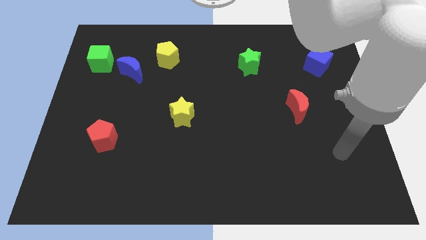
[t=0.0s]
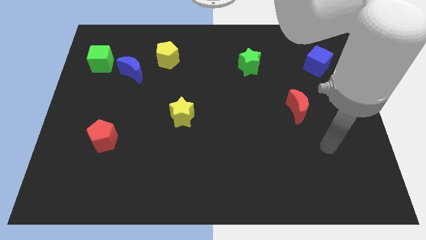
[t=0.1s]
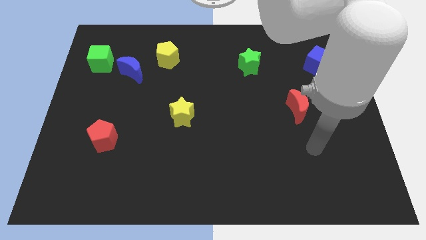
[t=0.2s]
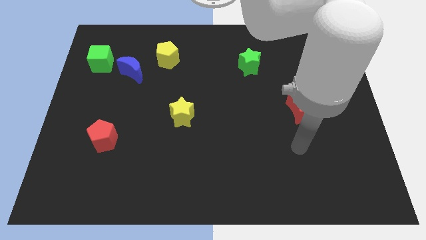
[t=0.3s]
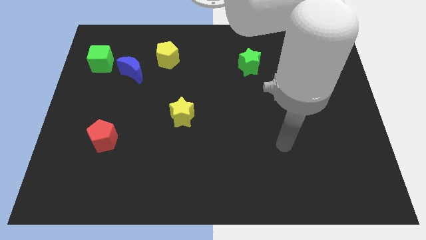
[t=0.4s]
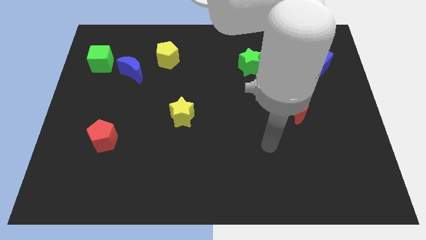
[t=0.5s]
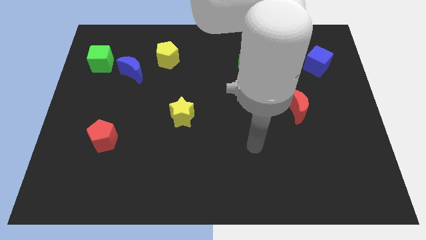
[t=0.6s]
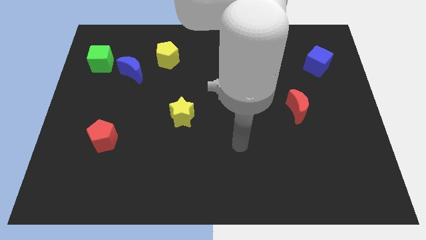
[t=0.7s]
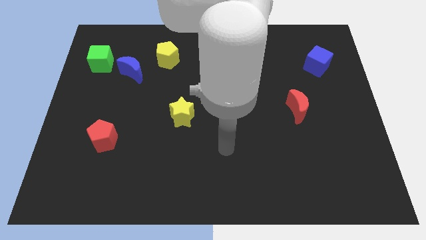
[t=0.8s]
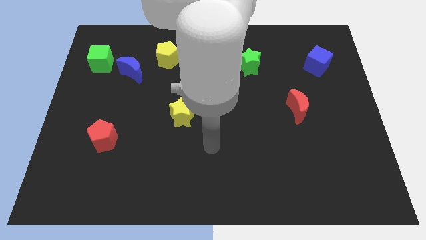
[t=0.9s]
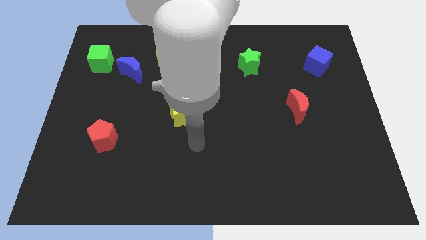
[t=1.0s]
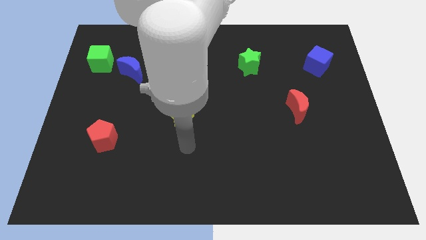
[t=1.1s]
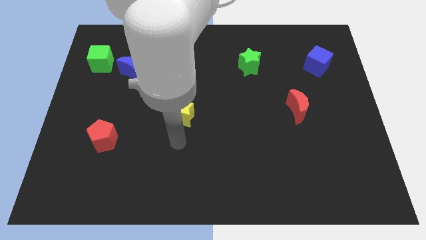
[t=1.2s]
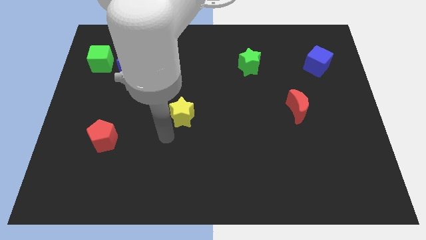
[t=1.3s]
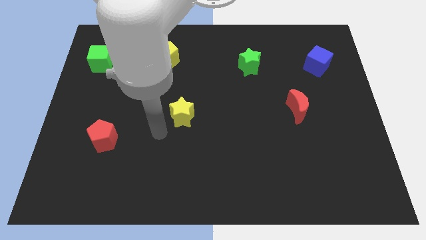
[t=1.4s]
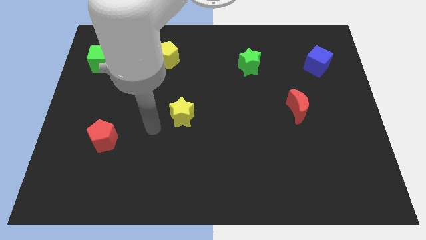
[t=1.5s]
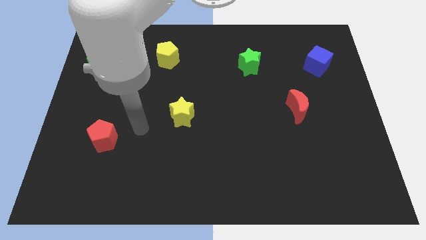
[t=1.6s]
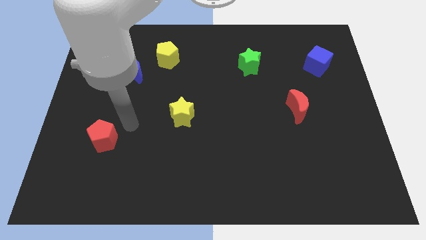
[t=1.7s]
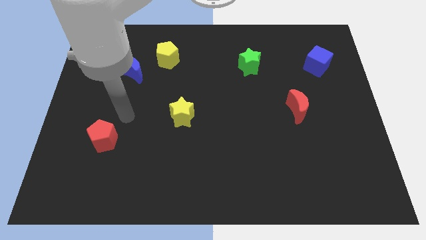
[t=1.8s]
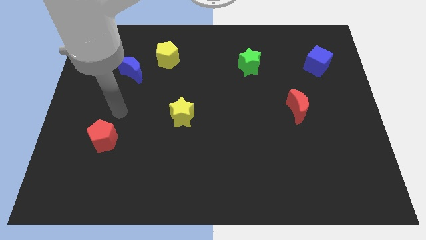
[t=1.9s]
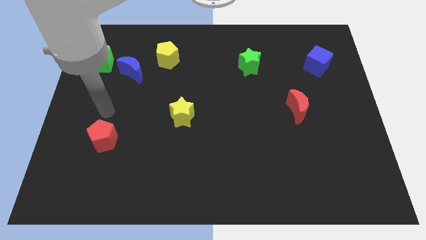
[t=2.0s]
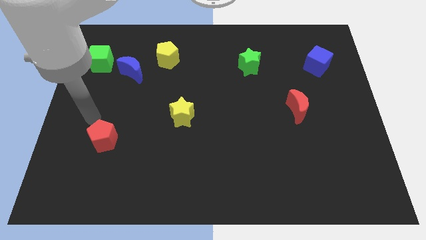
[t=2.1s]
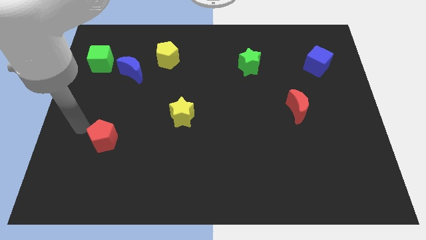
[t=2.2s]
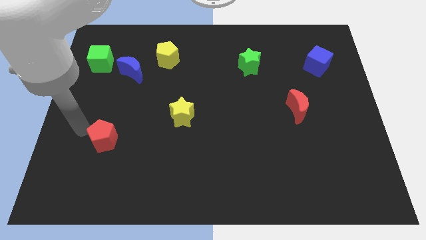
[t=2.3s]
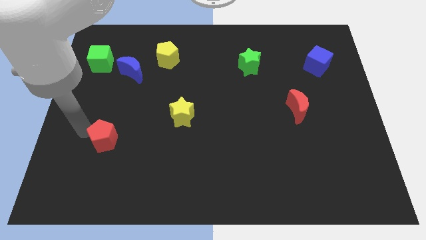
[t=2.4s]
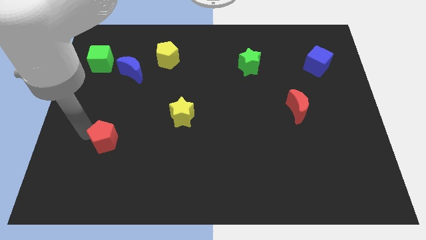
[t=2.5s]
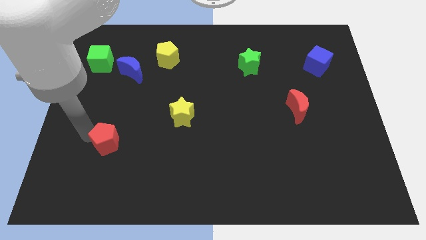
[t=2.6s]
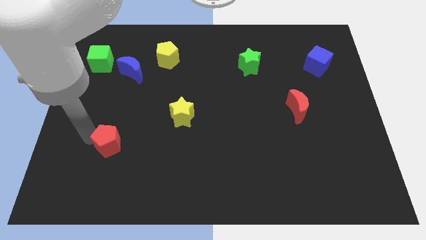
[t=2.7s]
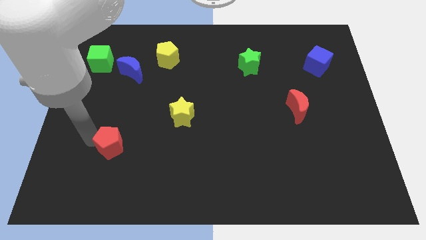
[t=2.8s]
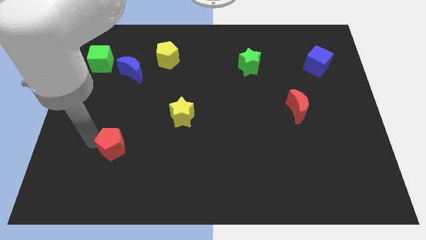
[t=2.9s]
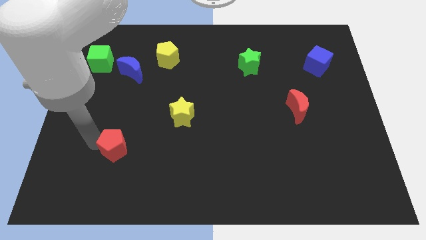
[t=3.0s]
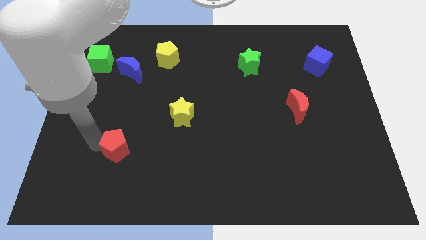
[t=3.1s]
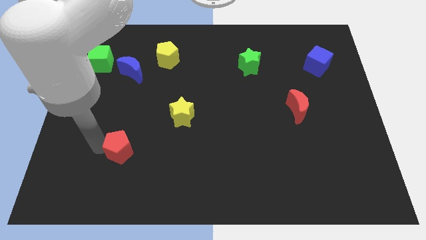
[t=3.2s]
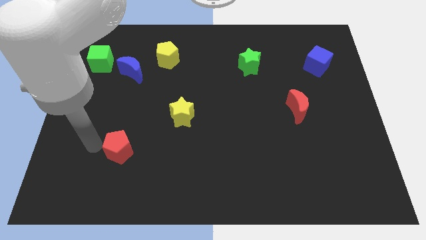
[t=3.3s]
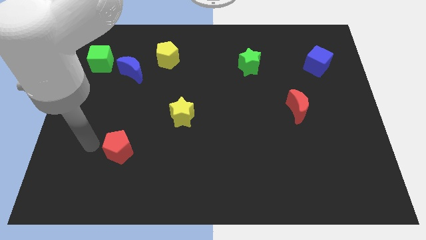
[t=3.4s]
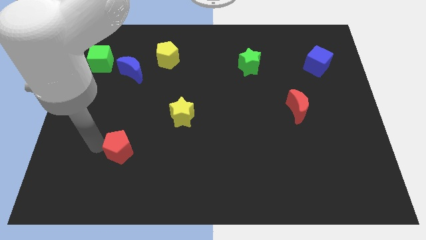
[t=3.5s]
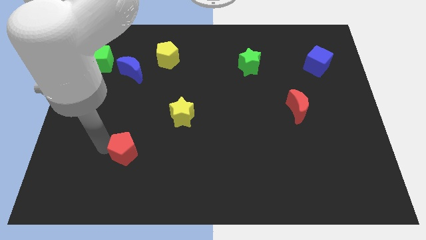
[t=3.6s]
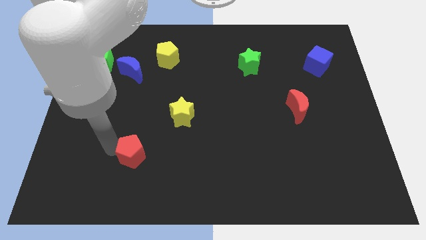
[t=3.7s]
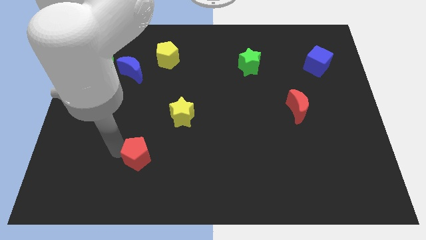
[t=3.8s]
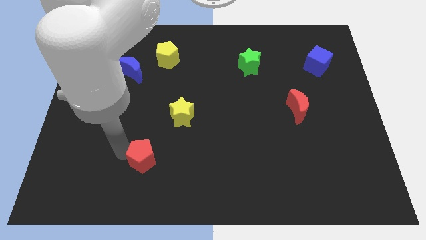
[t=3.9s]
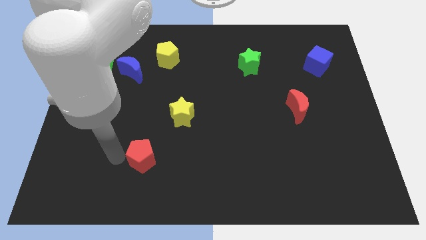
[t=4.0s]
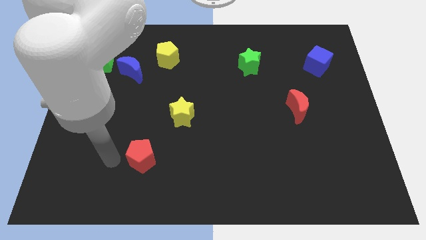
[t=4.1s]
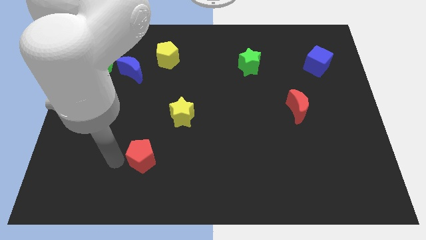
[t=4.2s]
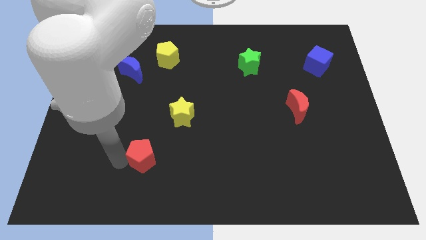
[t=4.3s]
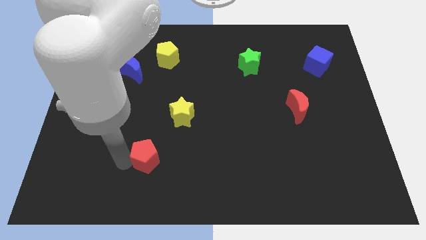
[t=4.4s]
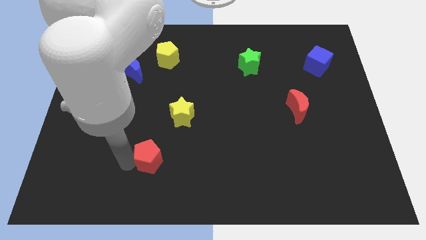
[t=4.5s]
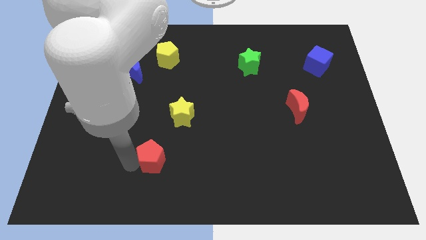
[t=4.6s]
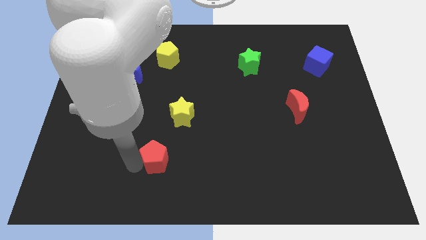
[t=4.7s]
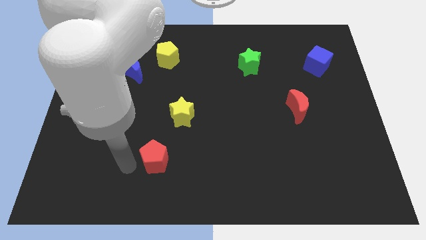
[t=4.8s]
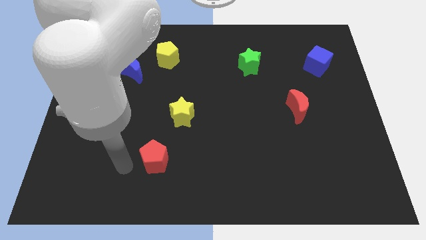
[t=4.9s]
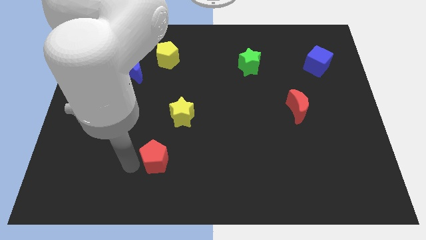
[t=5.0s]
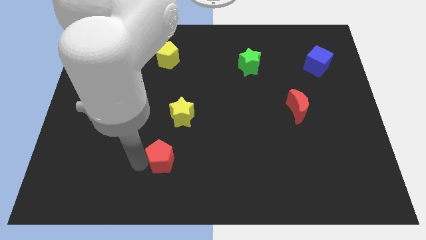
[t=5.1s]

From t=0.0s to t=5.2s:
put the red pentagon to the bottom of the yellow star

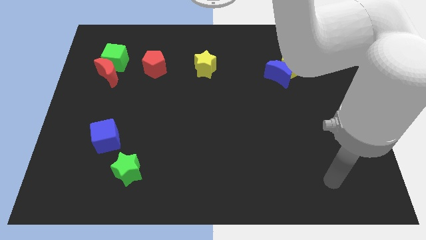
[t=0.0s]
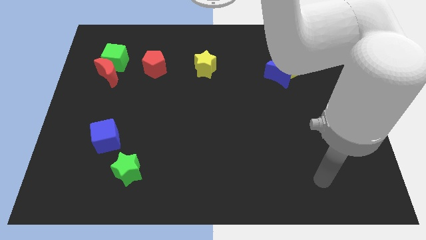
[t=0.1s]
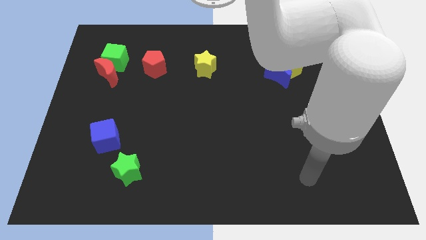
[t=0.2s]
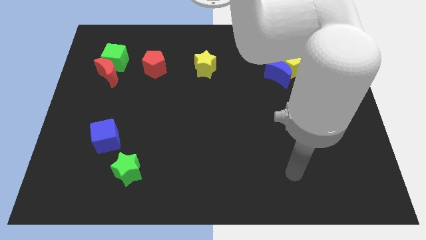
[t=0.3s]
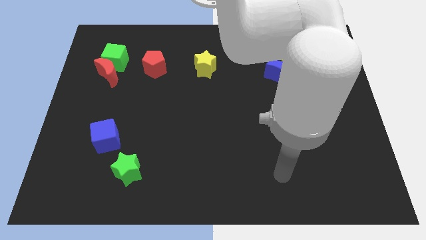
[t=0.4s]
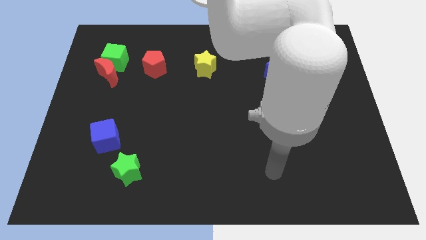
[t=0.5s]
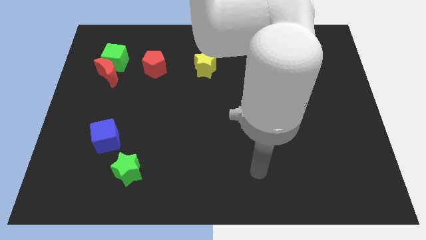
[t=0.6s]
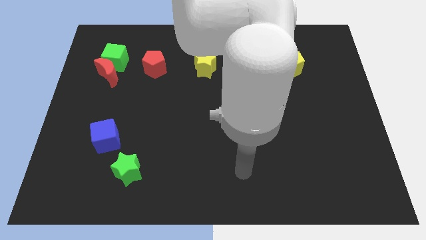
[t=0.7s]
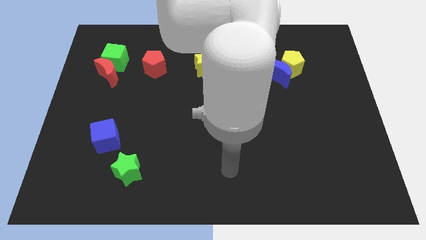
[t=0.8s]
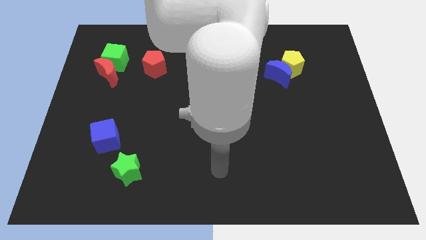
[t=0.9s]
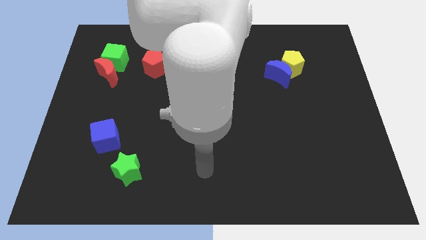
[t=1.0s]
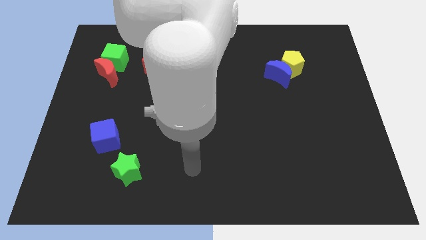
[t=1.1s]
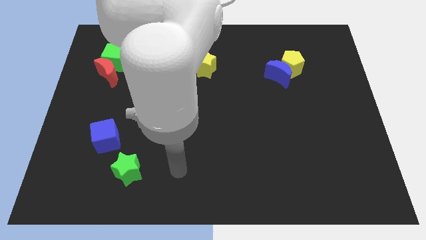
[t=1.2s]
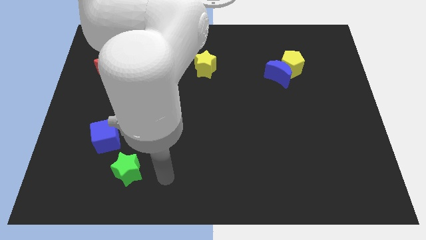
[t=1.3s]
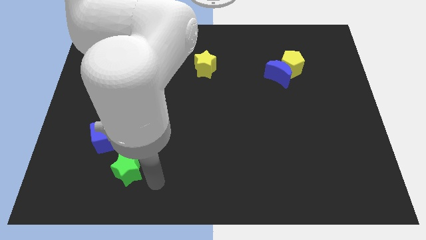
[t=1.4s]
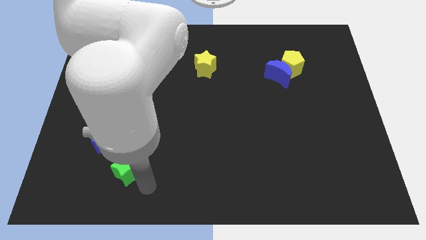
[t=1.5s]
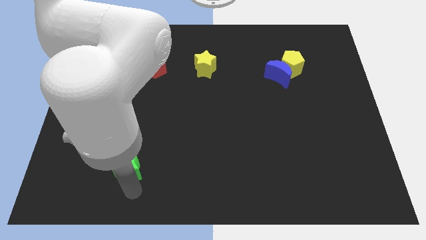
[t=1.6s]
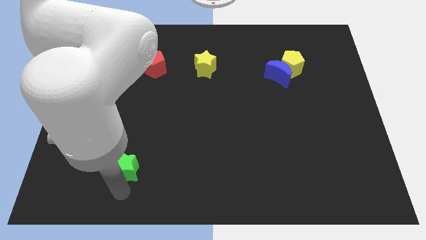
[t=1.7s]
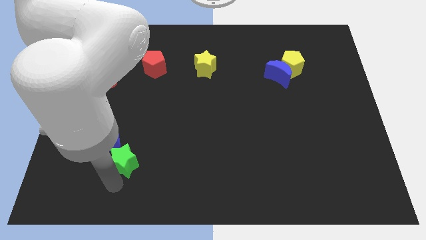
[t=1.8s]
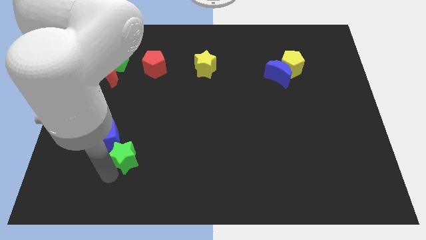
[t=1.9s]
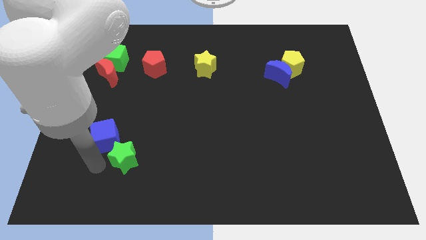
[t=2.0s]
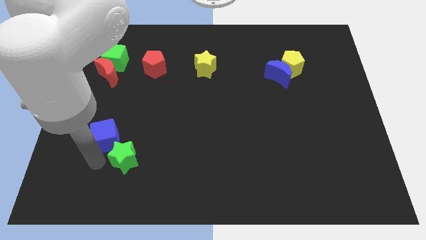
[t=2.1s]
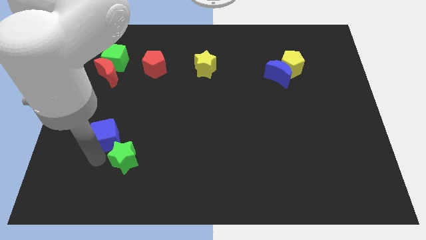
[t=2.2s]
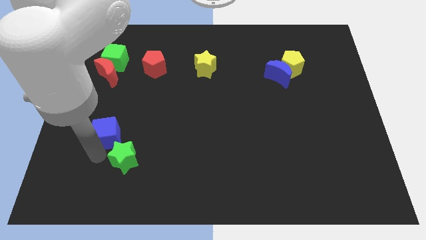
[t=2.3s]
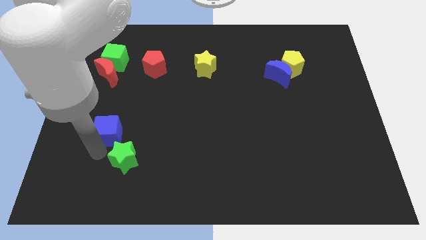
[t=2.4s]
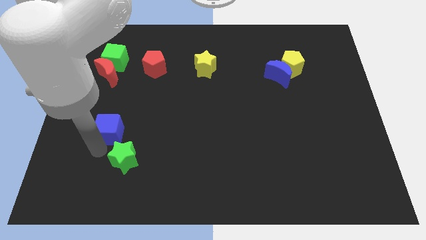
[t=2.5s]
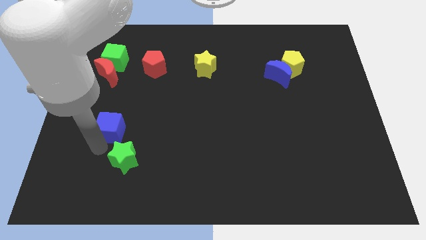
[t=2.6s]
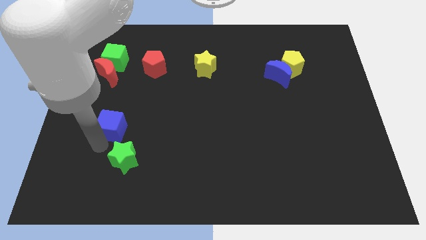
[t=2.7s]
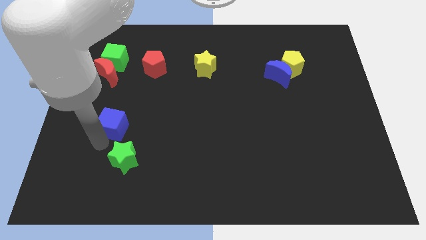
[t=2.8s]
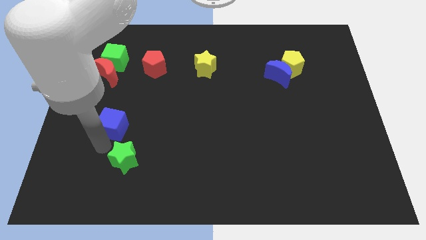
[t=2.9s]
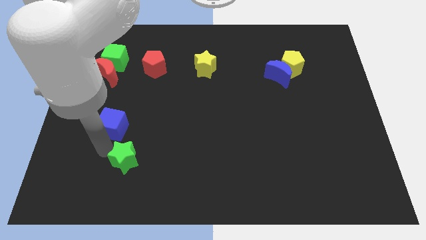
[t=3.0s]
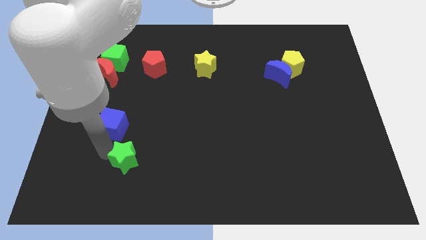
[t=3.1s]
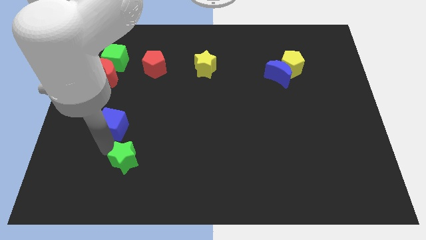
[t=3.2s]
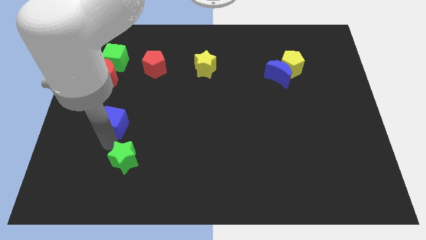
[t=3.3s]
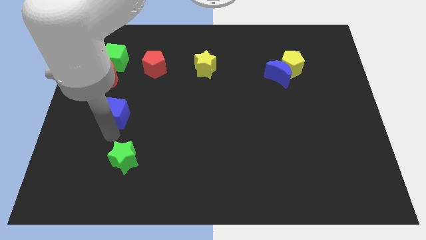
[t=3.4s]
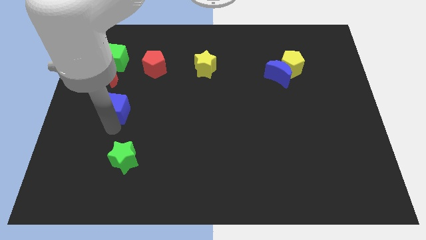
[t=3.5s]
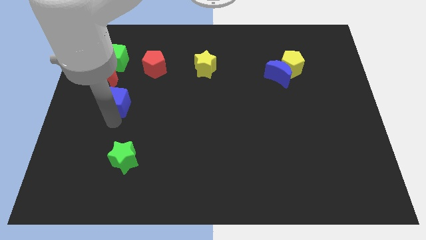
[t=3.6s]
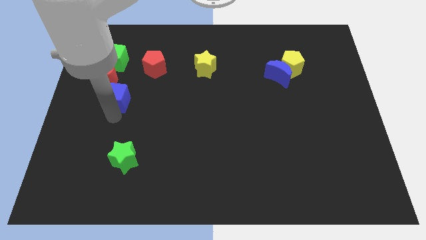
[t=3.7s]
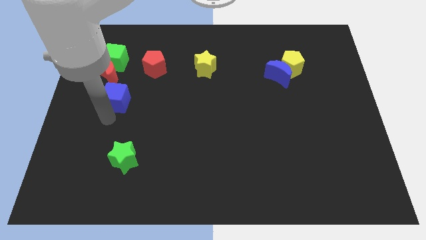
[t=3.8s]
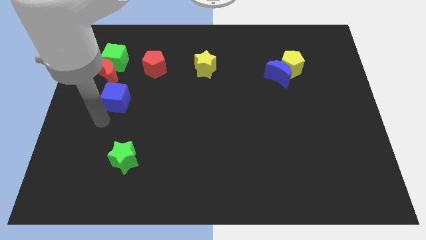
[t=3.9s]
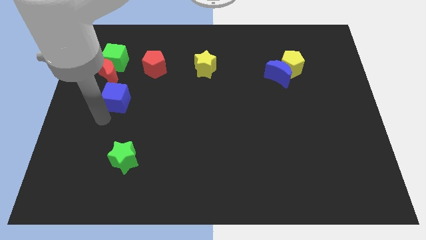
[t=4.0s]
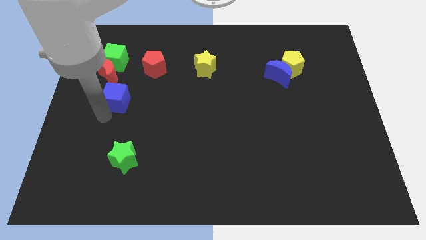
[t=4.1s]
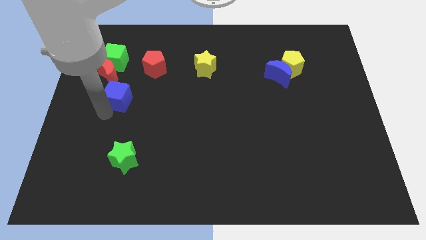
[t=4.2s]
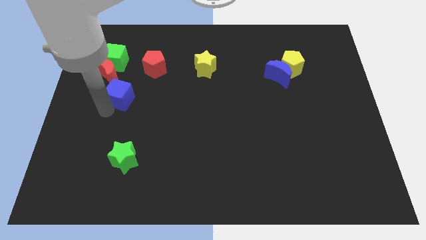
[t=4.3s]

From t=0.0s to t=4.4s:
put the blue cube to the bottom left of the red pentagon
